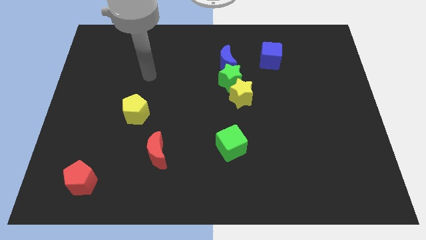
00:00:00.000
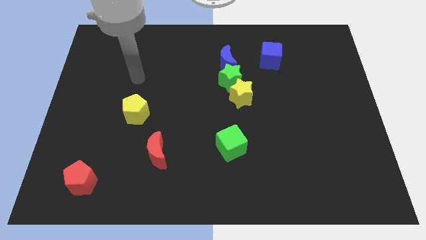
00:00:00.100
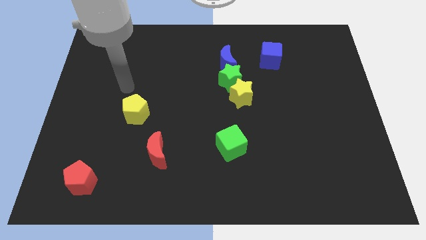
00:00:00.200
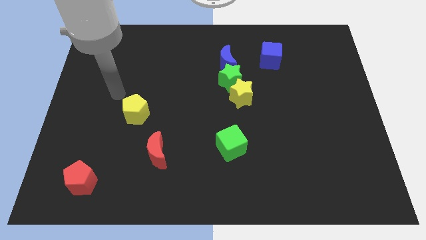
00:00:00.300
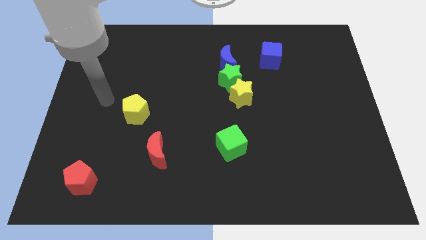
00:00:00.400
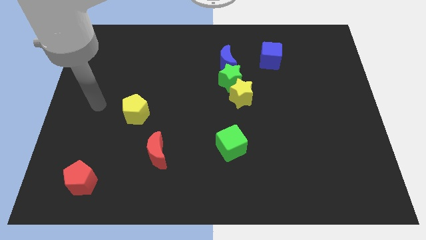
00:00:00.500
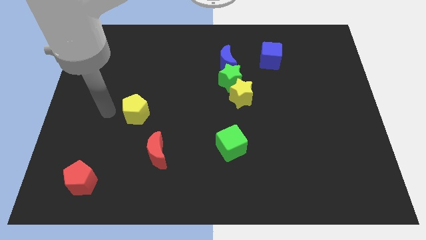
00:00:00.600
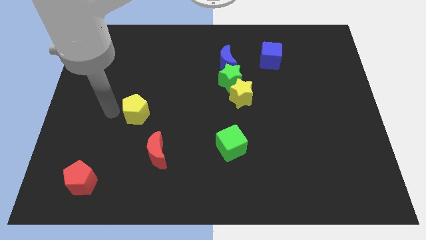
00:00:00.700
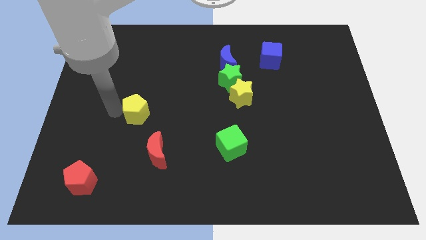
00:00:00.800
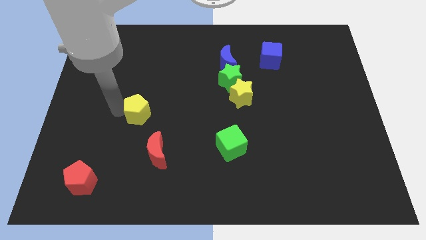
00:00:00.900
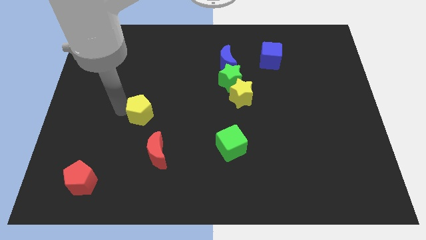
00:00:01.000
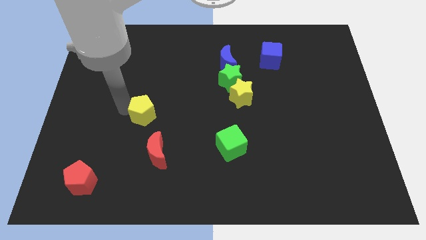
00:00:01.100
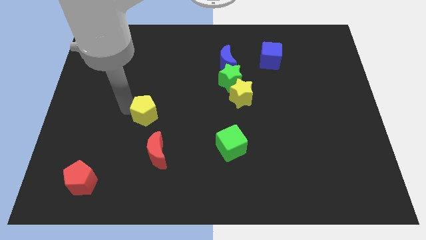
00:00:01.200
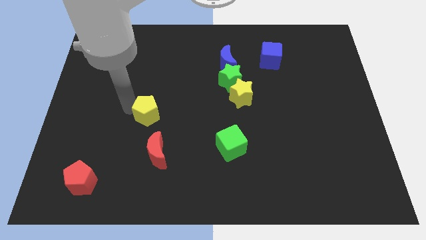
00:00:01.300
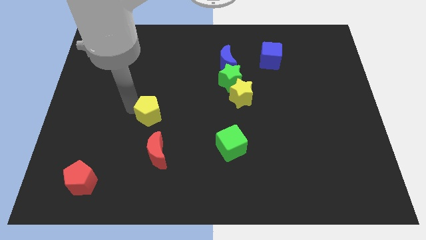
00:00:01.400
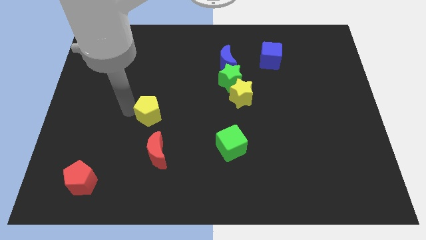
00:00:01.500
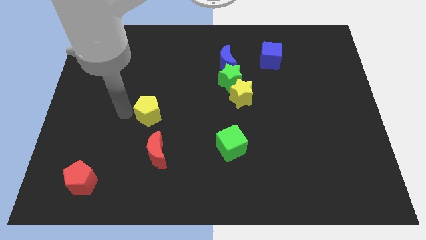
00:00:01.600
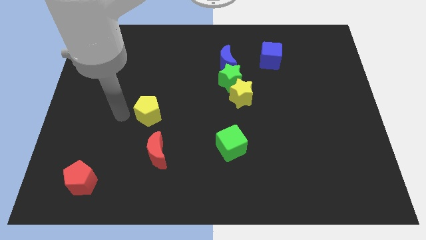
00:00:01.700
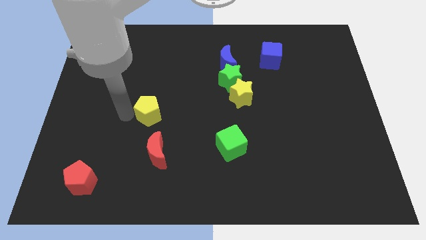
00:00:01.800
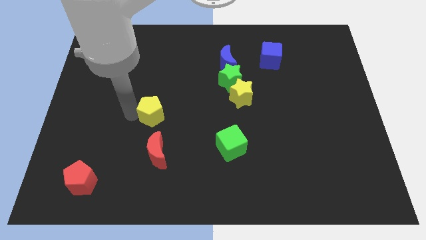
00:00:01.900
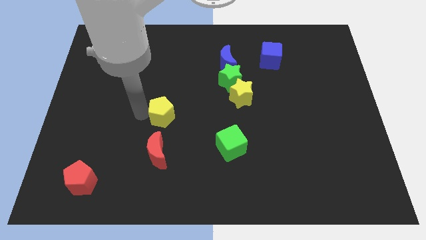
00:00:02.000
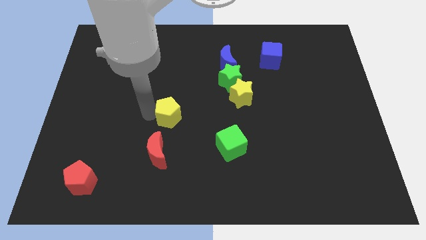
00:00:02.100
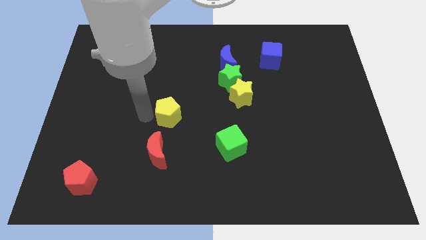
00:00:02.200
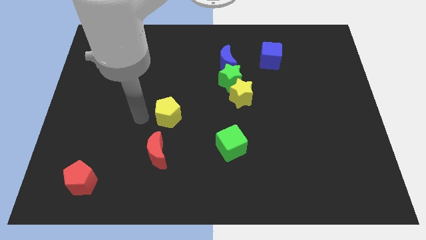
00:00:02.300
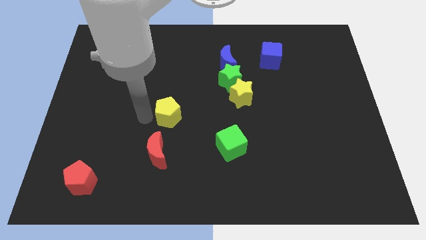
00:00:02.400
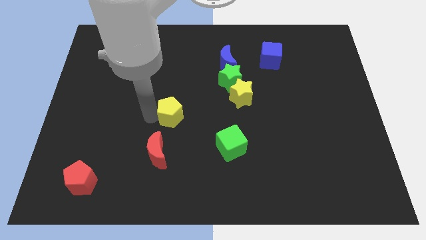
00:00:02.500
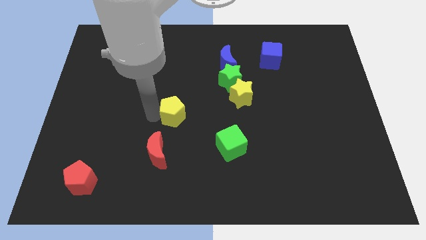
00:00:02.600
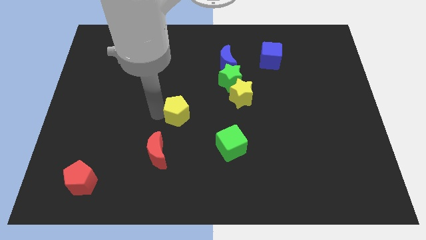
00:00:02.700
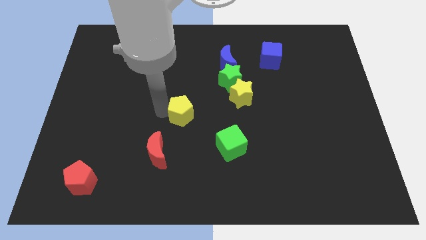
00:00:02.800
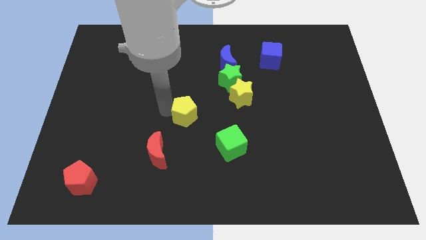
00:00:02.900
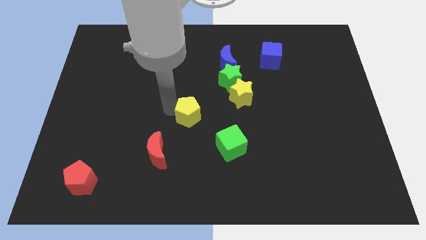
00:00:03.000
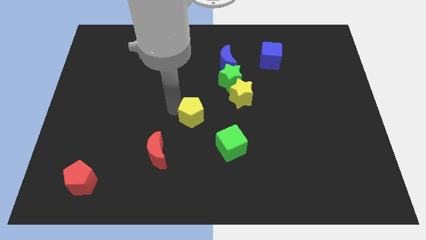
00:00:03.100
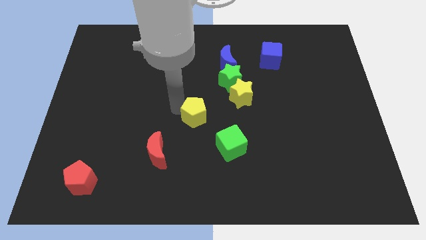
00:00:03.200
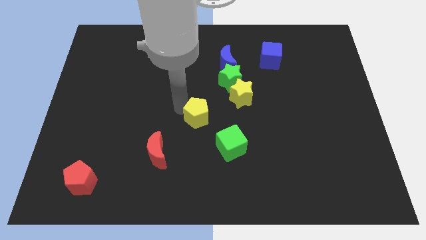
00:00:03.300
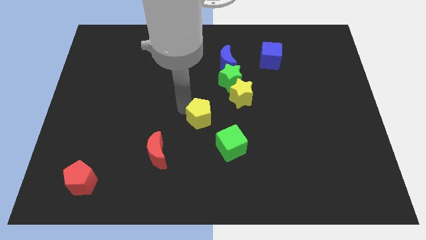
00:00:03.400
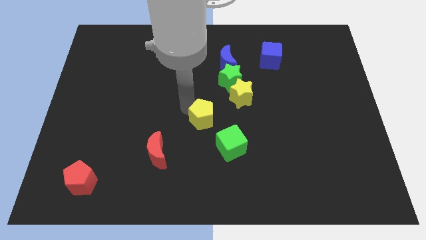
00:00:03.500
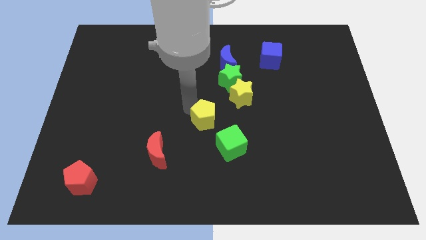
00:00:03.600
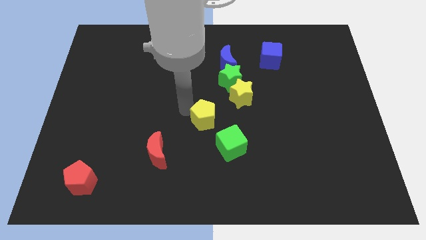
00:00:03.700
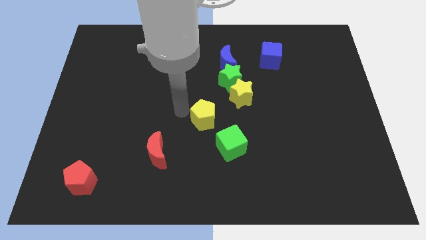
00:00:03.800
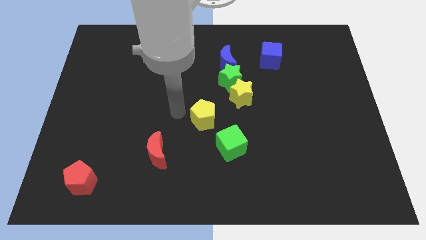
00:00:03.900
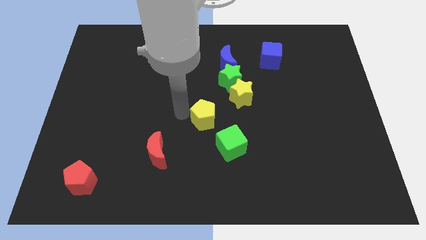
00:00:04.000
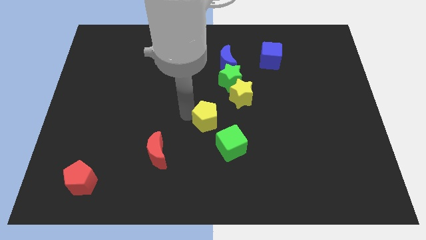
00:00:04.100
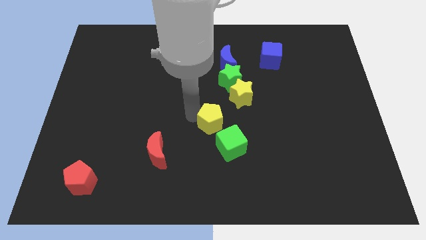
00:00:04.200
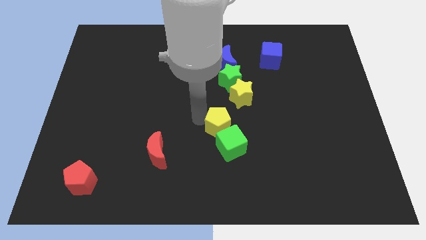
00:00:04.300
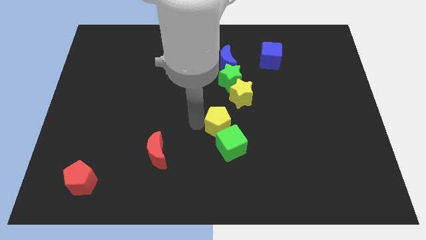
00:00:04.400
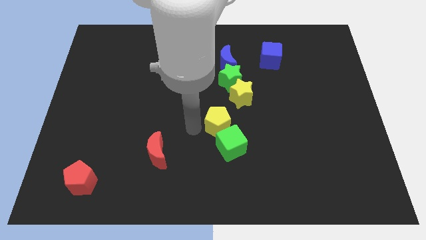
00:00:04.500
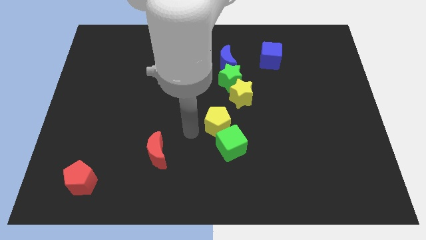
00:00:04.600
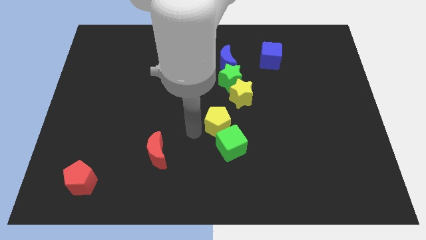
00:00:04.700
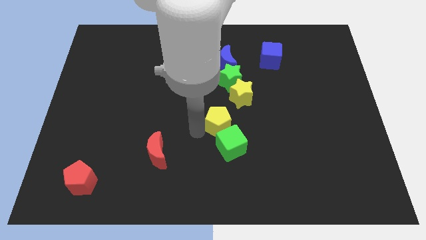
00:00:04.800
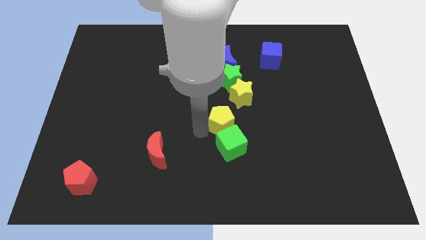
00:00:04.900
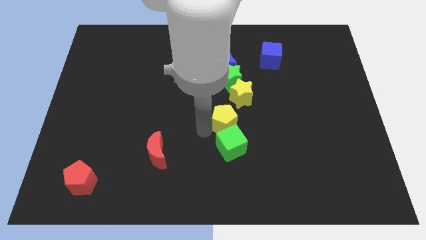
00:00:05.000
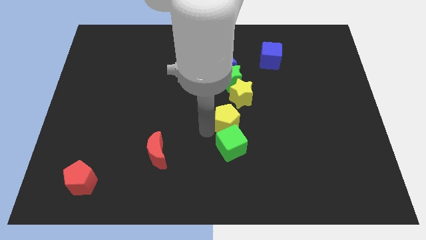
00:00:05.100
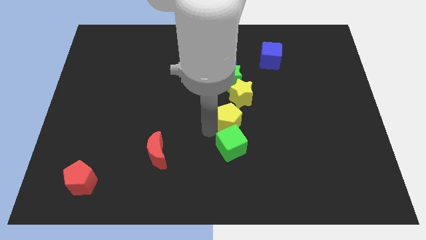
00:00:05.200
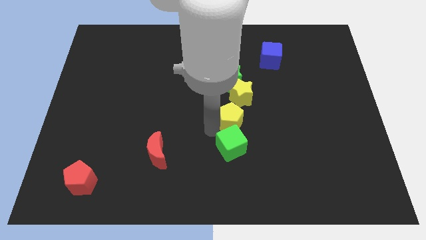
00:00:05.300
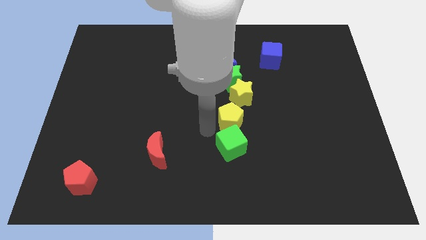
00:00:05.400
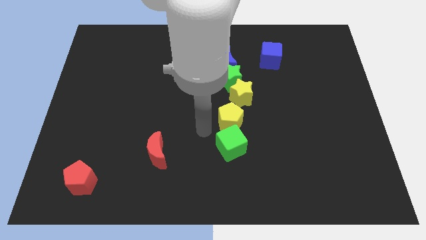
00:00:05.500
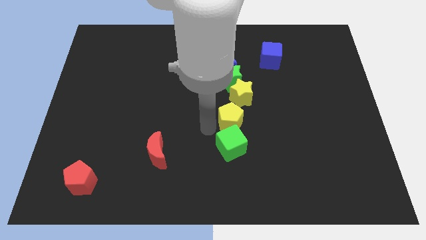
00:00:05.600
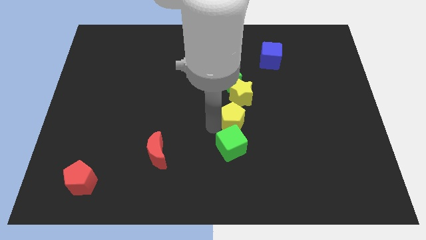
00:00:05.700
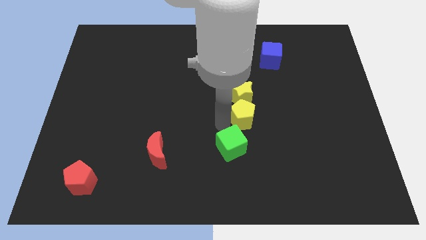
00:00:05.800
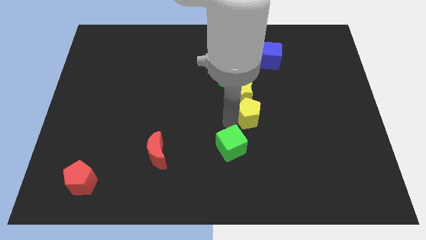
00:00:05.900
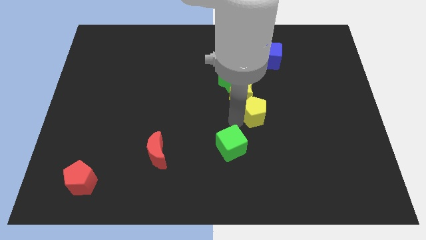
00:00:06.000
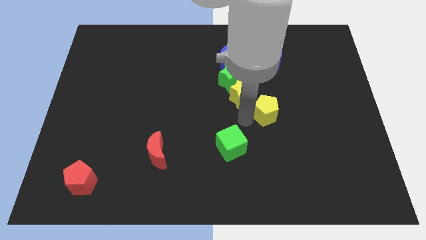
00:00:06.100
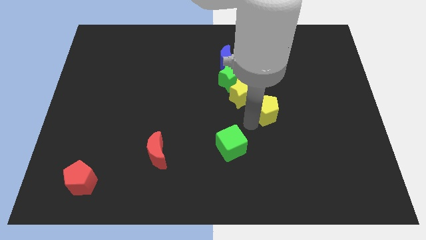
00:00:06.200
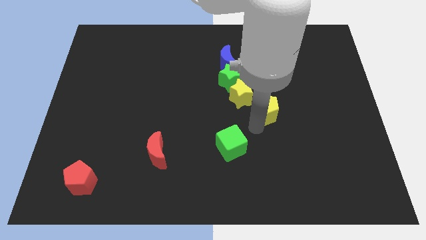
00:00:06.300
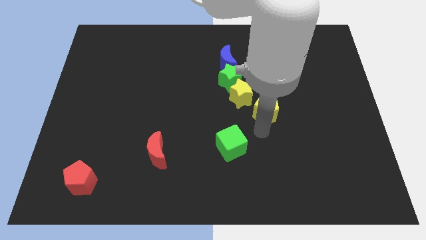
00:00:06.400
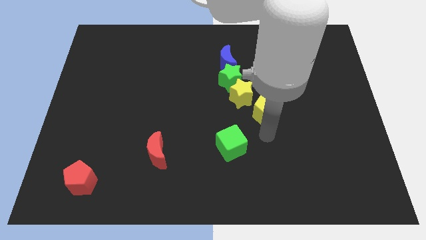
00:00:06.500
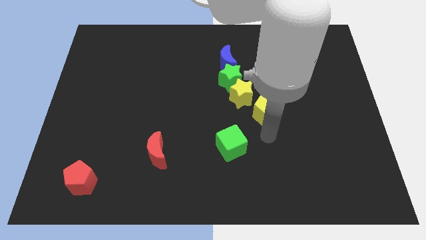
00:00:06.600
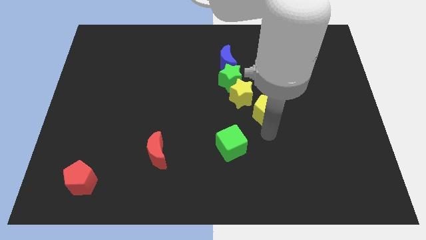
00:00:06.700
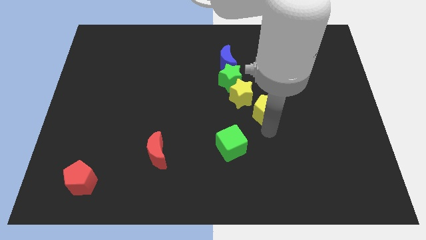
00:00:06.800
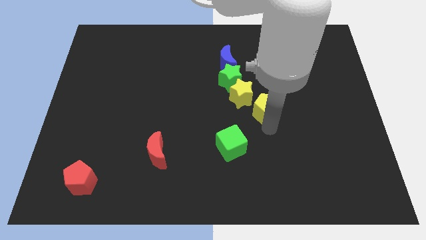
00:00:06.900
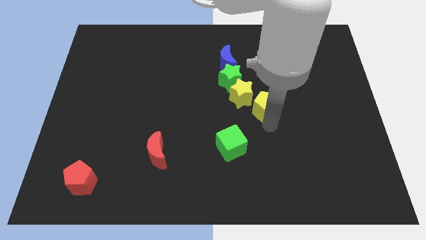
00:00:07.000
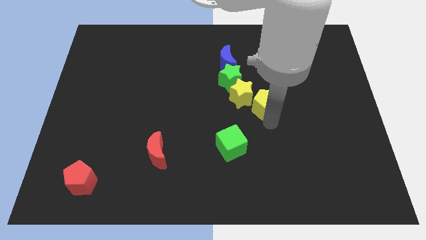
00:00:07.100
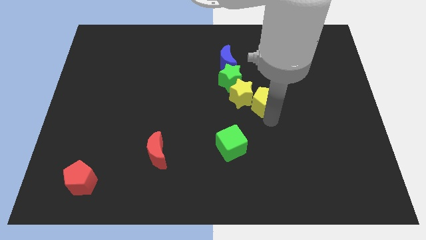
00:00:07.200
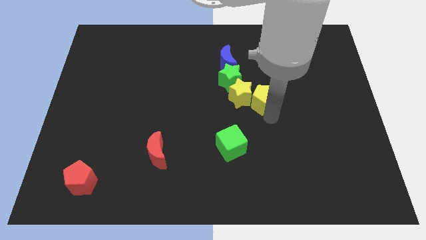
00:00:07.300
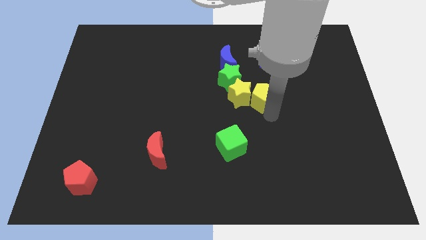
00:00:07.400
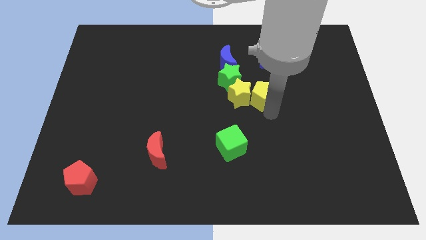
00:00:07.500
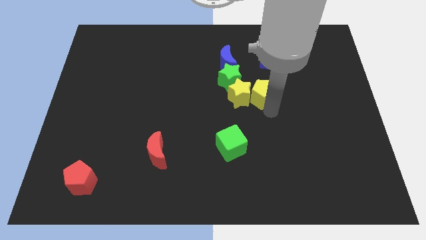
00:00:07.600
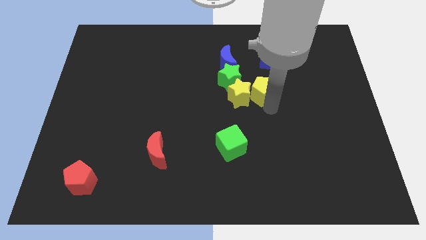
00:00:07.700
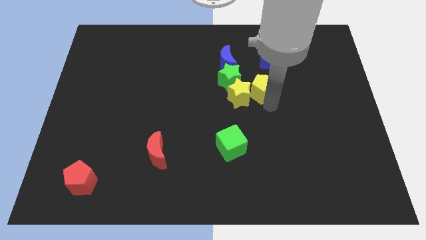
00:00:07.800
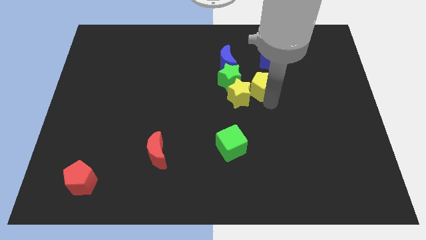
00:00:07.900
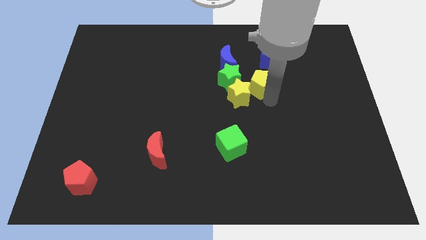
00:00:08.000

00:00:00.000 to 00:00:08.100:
push the yellow pentagon diagonally down and to the left of the blue cube
